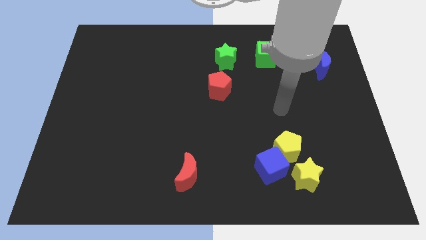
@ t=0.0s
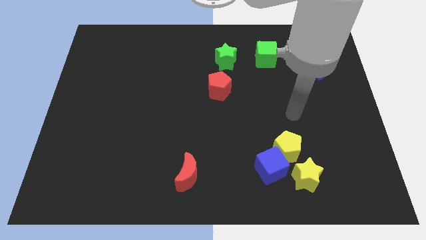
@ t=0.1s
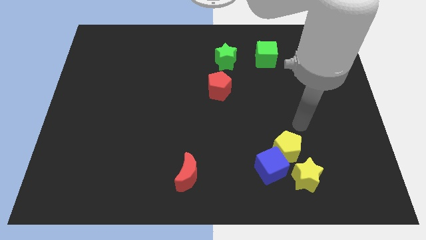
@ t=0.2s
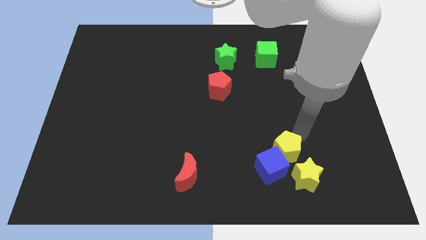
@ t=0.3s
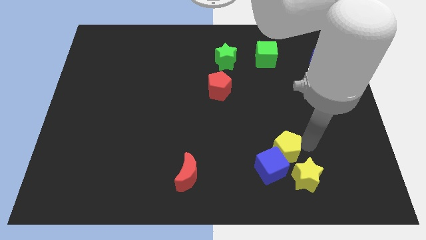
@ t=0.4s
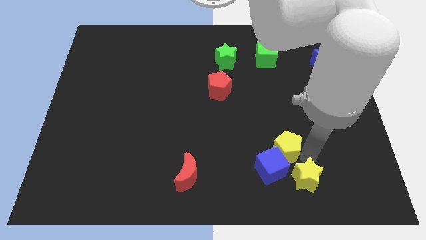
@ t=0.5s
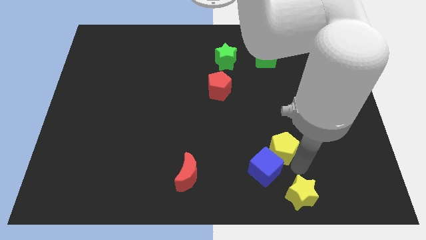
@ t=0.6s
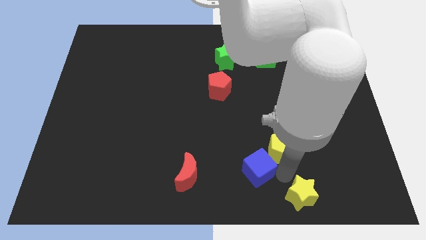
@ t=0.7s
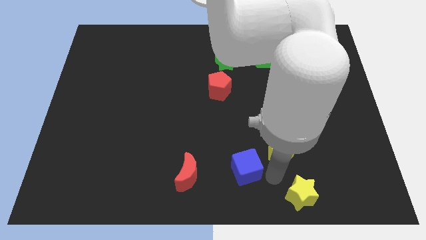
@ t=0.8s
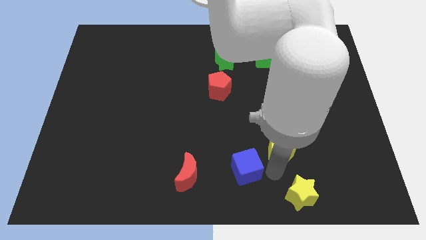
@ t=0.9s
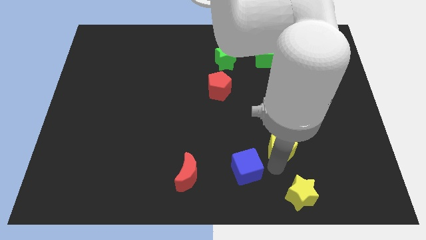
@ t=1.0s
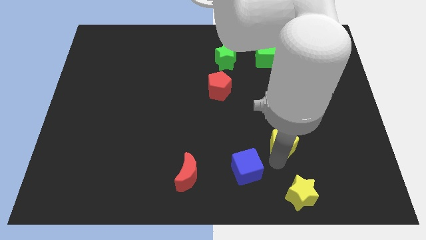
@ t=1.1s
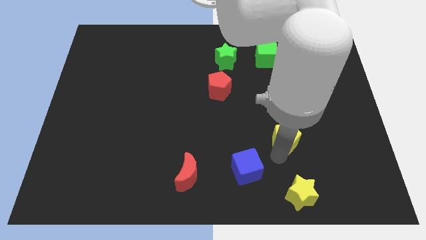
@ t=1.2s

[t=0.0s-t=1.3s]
separate the yellow pentagon from the blue cube and yellow star

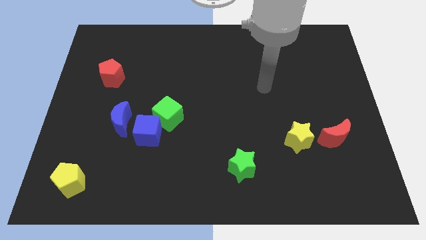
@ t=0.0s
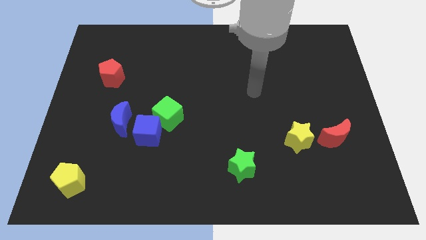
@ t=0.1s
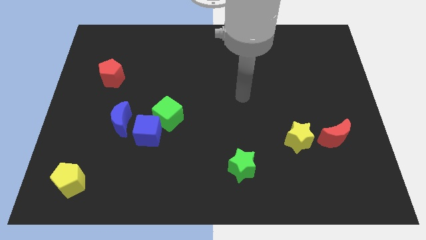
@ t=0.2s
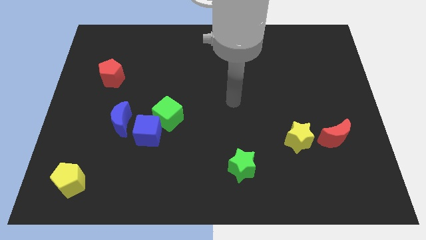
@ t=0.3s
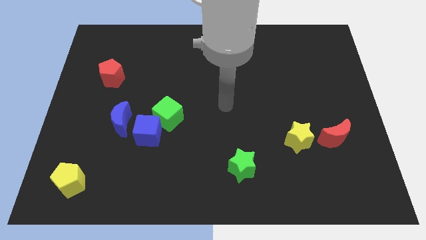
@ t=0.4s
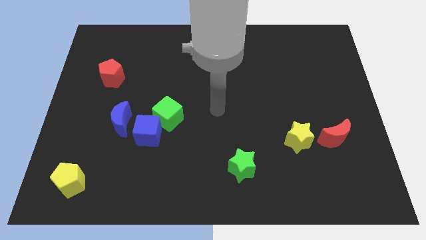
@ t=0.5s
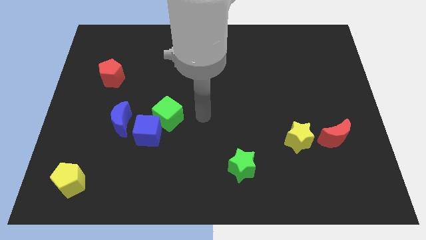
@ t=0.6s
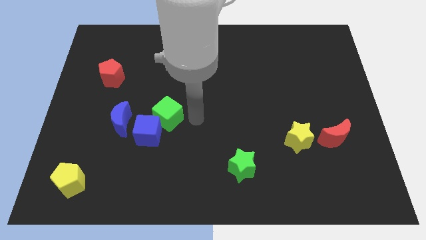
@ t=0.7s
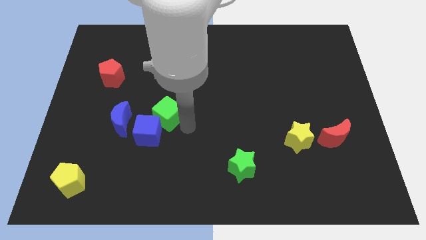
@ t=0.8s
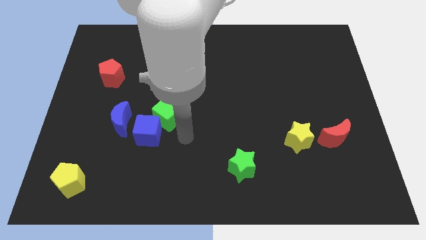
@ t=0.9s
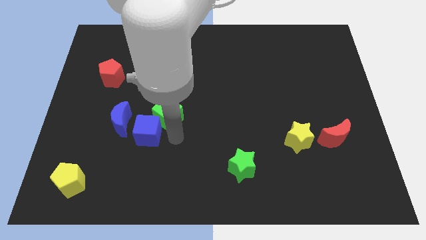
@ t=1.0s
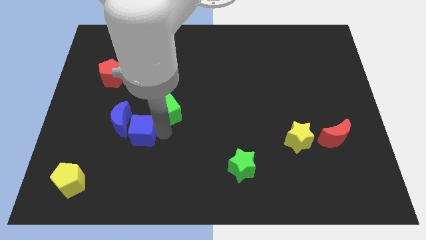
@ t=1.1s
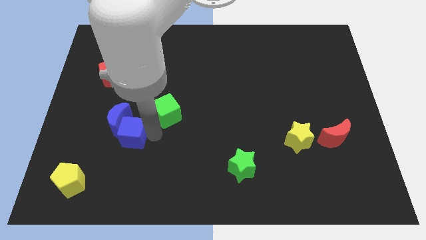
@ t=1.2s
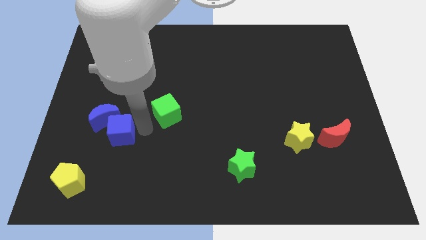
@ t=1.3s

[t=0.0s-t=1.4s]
move the green cube away from the blue cube

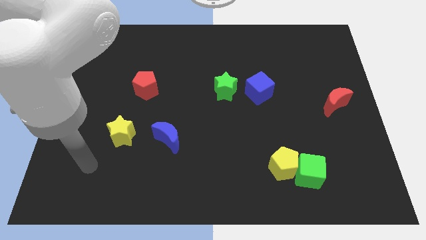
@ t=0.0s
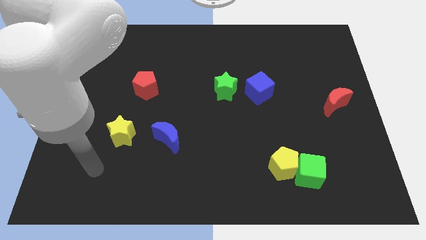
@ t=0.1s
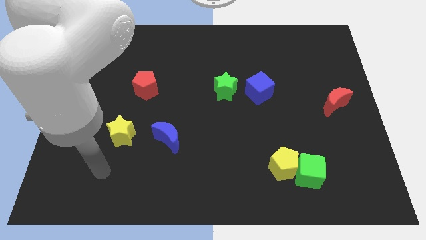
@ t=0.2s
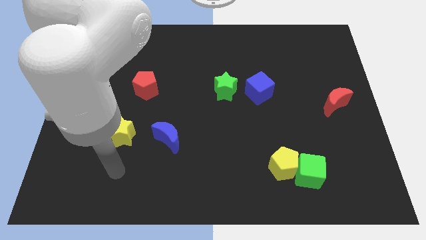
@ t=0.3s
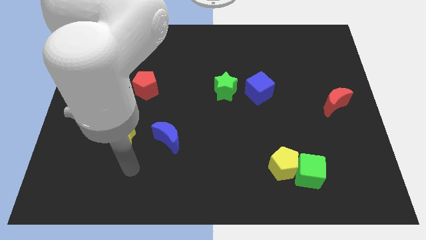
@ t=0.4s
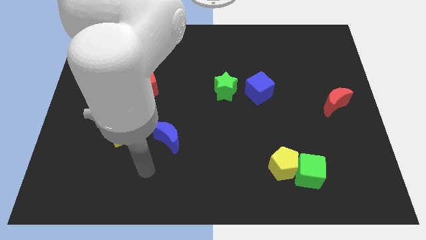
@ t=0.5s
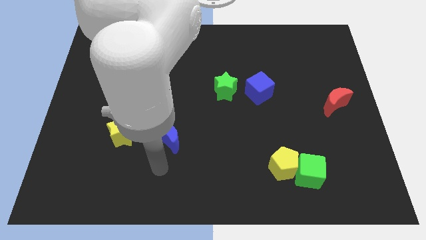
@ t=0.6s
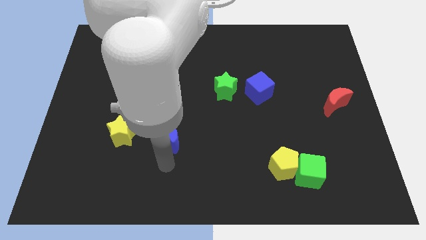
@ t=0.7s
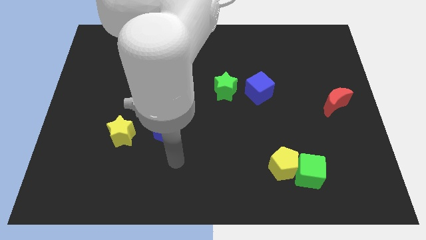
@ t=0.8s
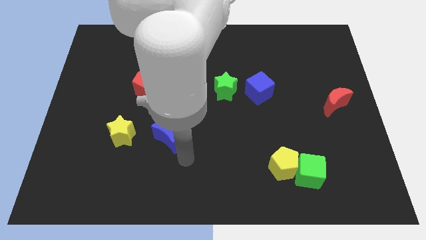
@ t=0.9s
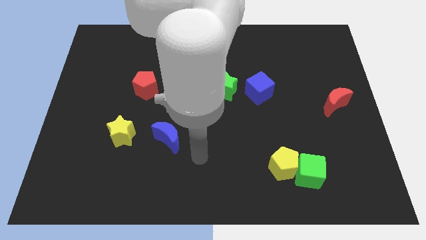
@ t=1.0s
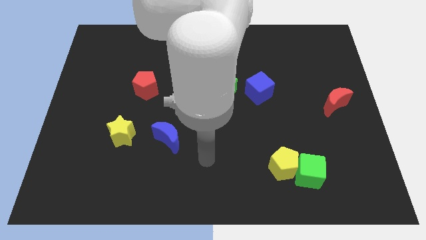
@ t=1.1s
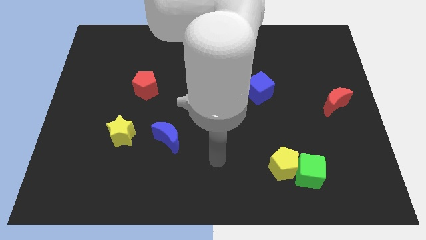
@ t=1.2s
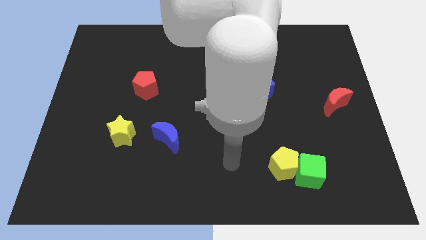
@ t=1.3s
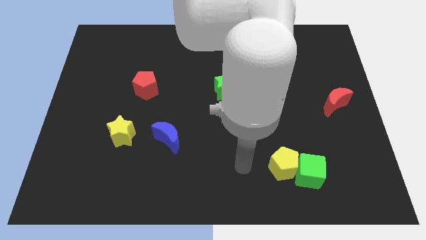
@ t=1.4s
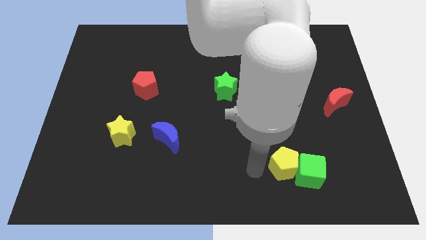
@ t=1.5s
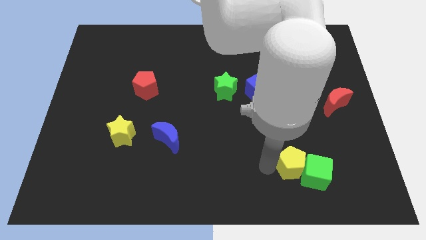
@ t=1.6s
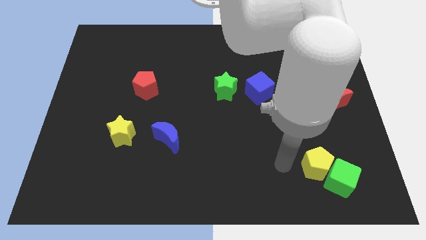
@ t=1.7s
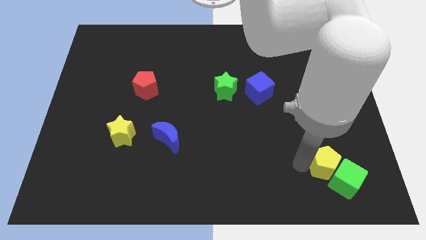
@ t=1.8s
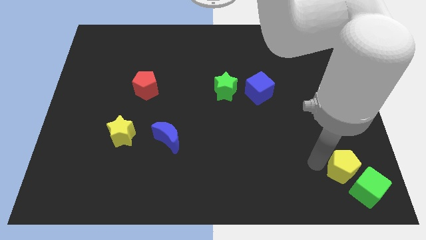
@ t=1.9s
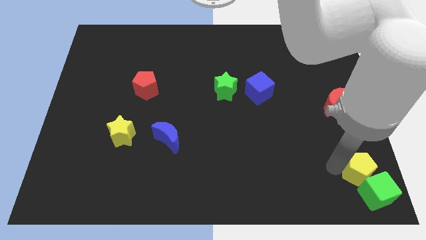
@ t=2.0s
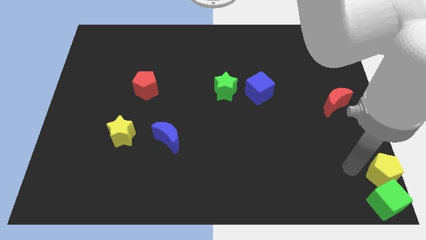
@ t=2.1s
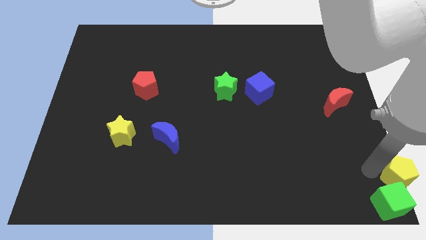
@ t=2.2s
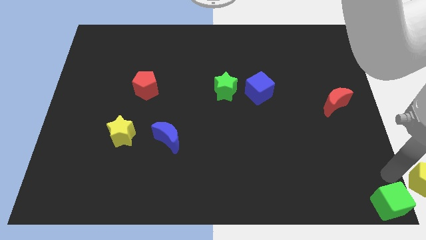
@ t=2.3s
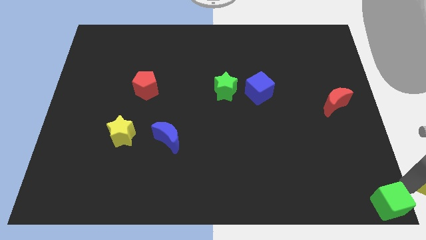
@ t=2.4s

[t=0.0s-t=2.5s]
move the green cube away from the yellow pentagon

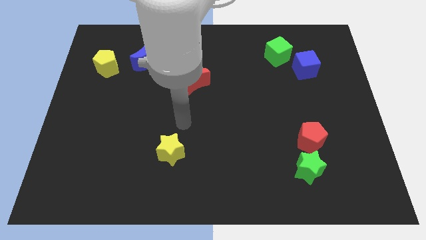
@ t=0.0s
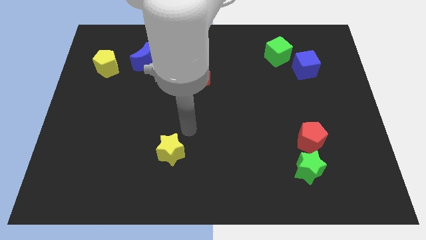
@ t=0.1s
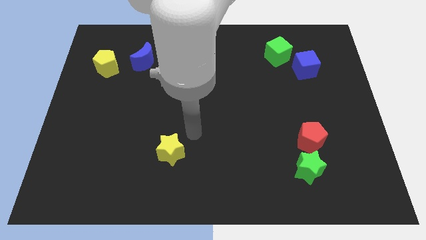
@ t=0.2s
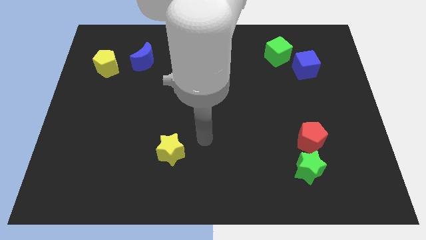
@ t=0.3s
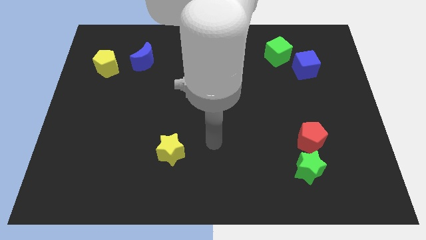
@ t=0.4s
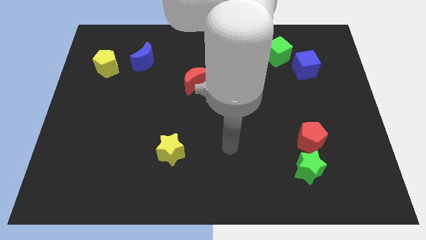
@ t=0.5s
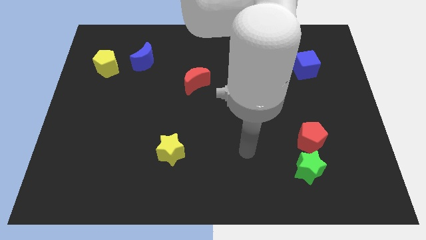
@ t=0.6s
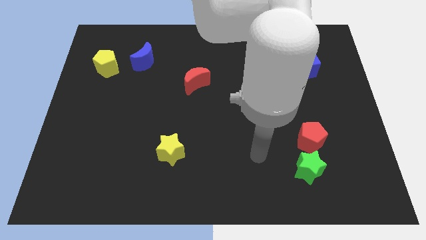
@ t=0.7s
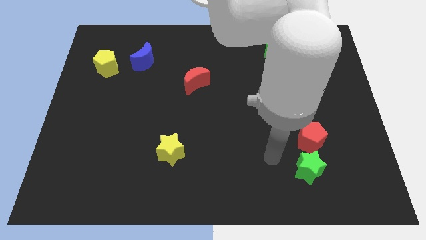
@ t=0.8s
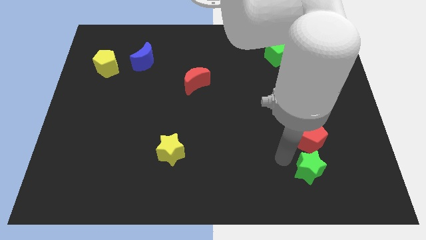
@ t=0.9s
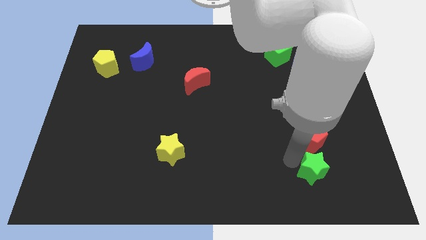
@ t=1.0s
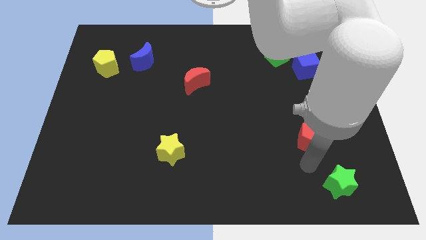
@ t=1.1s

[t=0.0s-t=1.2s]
move the red pentagon away from the green star

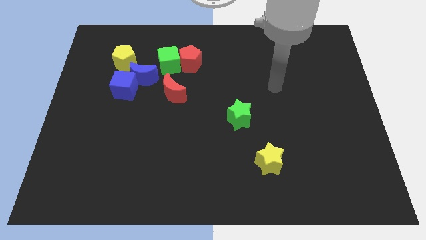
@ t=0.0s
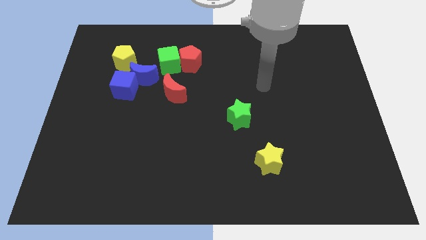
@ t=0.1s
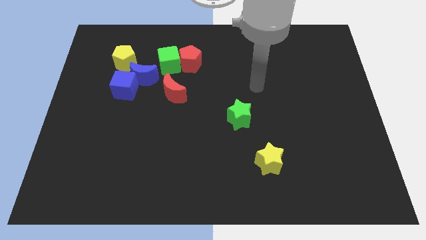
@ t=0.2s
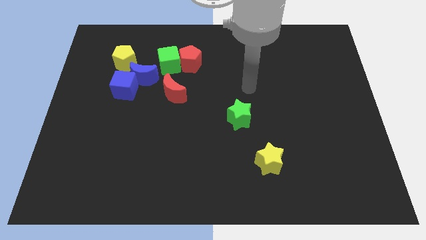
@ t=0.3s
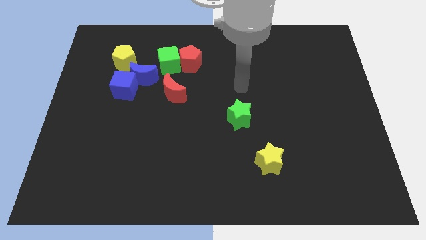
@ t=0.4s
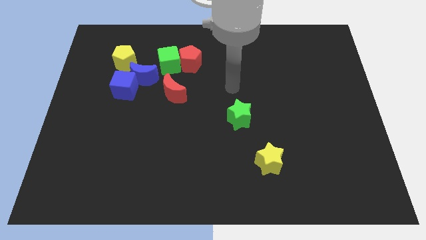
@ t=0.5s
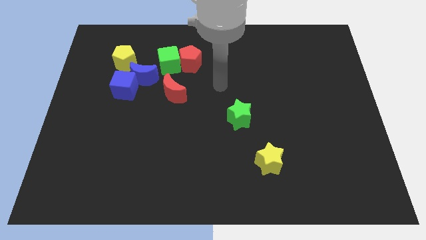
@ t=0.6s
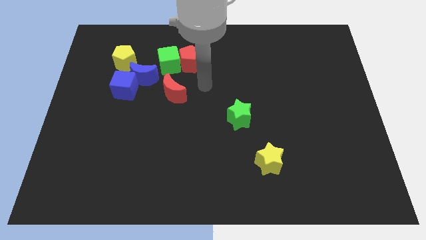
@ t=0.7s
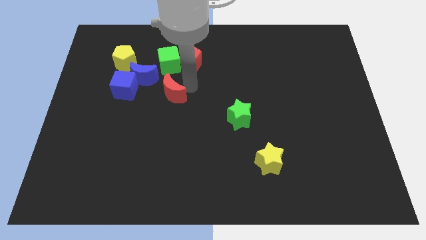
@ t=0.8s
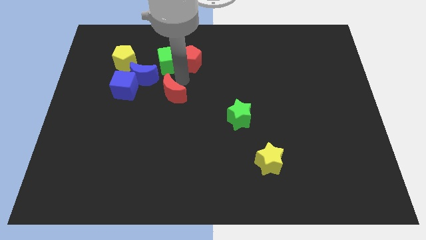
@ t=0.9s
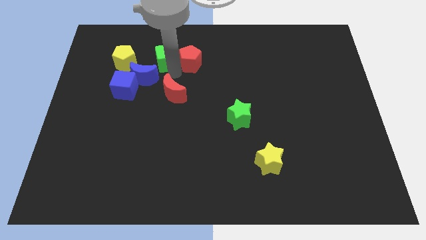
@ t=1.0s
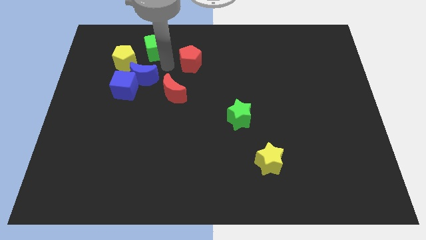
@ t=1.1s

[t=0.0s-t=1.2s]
separate the red pentagon from the green cube

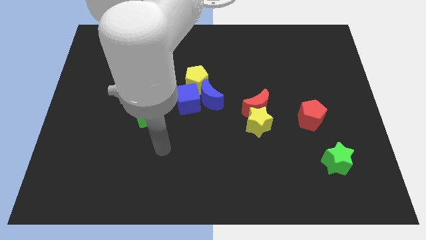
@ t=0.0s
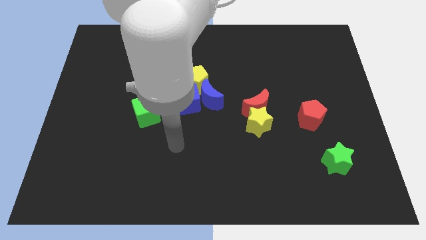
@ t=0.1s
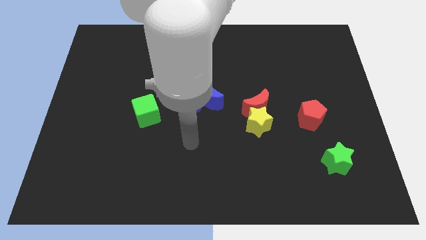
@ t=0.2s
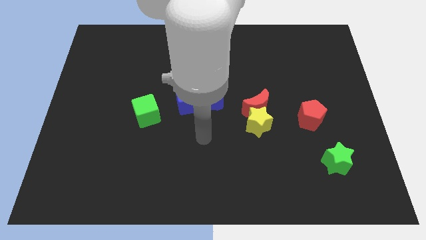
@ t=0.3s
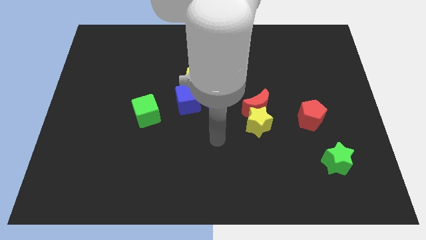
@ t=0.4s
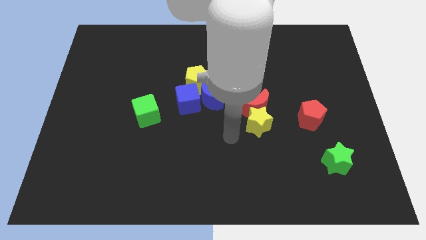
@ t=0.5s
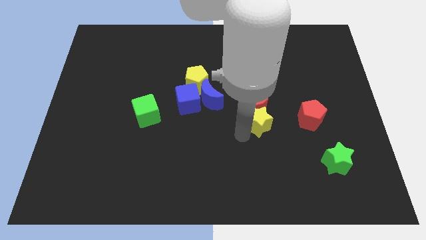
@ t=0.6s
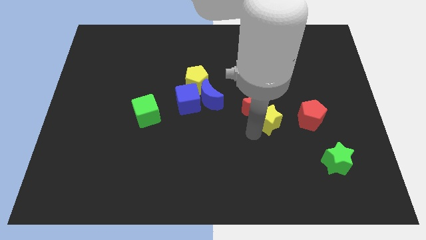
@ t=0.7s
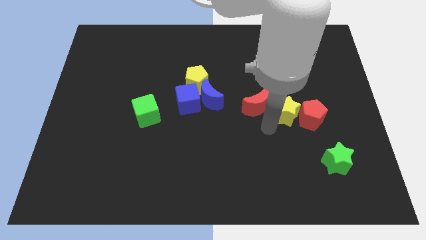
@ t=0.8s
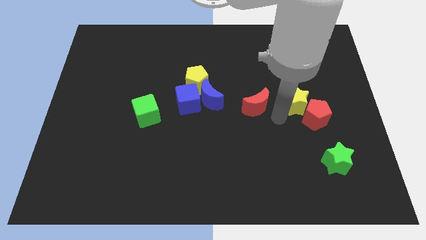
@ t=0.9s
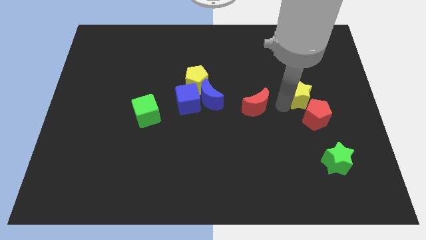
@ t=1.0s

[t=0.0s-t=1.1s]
separate the red moon from the yellow star

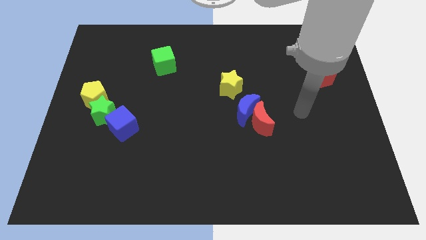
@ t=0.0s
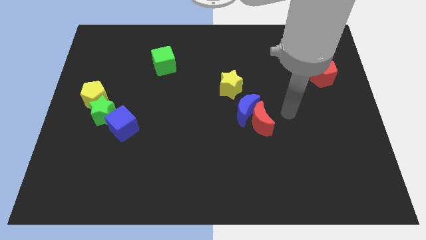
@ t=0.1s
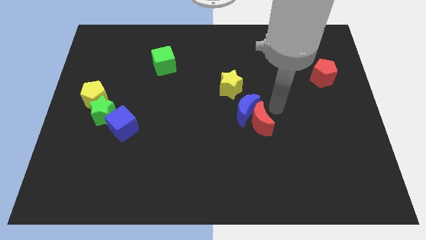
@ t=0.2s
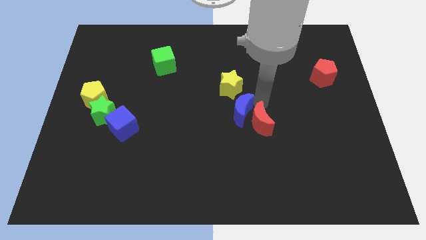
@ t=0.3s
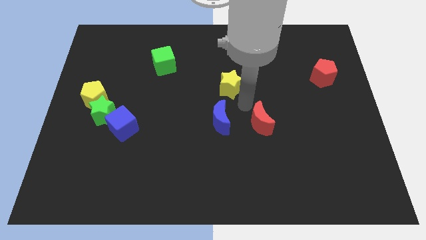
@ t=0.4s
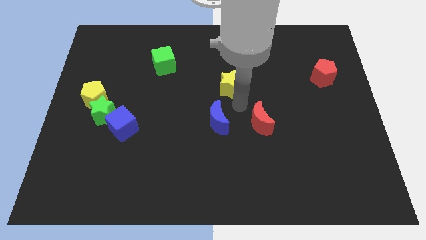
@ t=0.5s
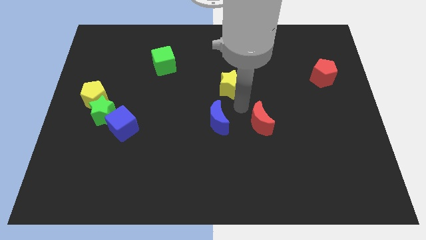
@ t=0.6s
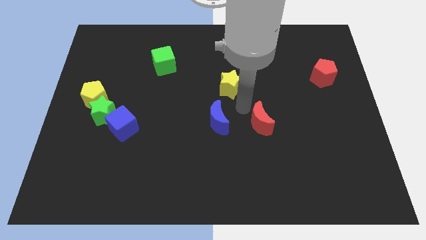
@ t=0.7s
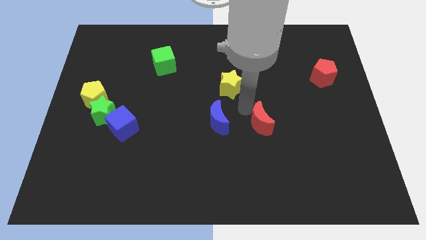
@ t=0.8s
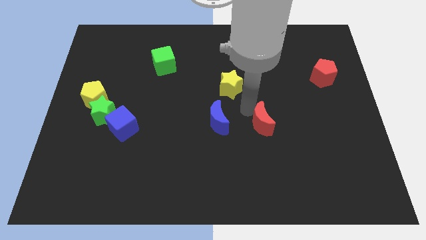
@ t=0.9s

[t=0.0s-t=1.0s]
move the red moon away from the blue moon
